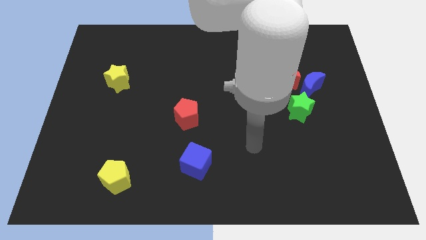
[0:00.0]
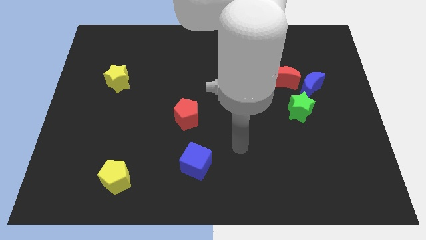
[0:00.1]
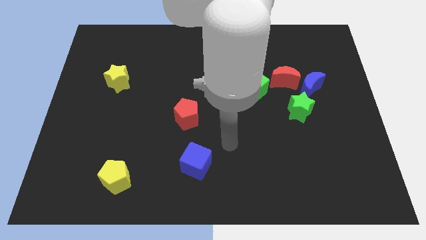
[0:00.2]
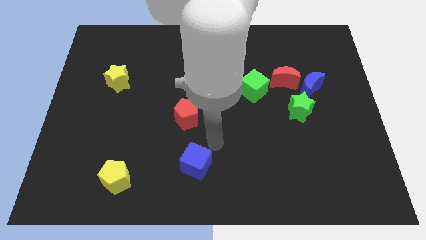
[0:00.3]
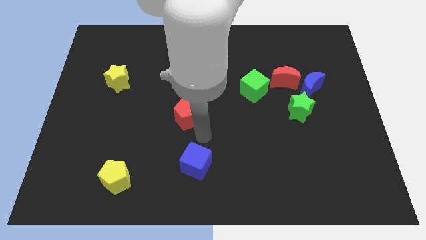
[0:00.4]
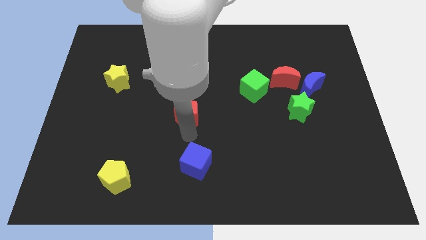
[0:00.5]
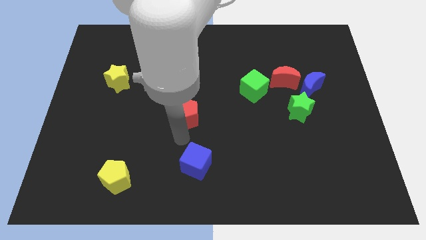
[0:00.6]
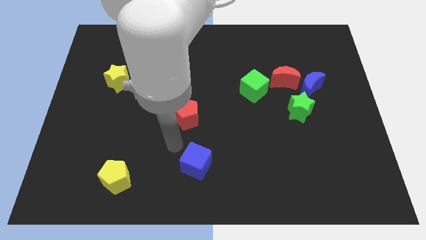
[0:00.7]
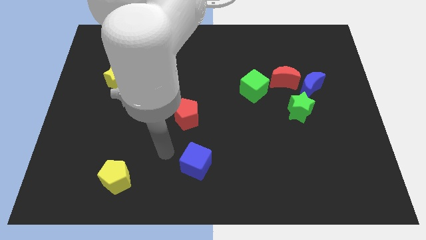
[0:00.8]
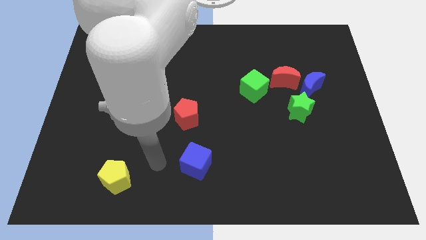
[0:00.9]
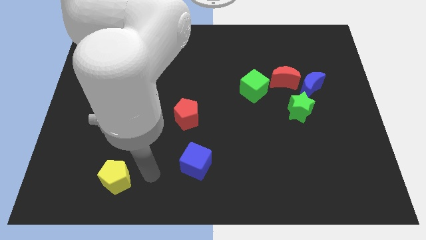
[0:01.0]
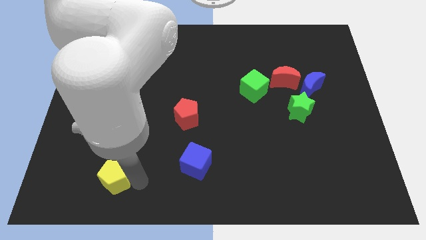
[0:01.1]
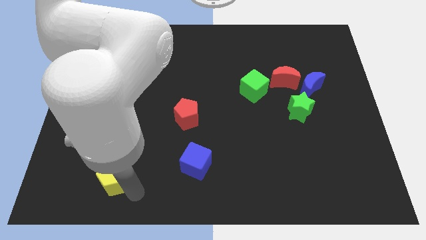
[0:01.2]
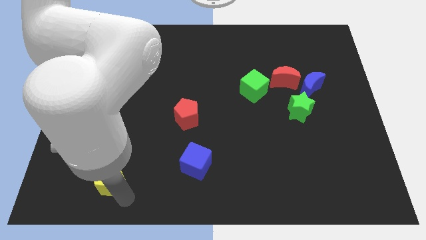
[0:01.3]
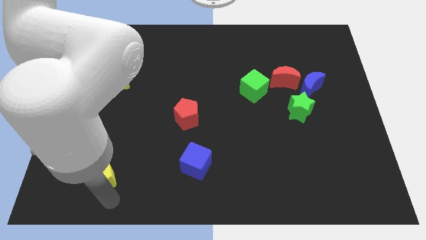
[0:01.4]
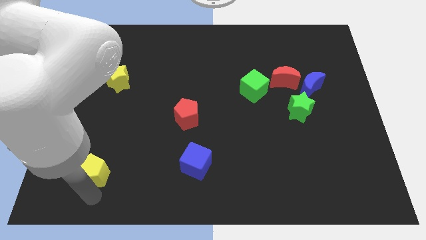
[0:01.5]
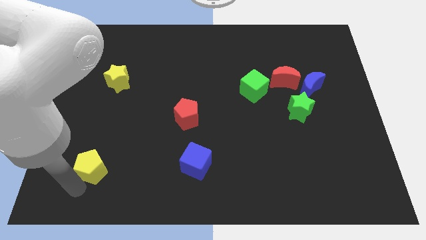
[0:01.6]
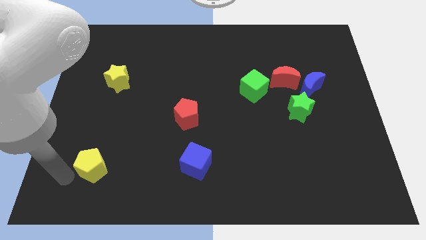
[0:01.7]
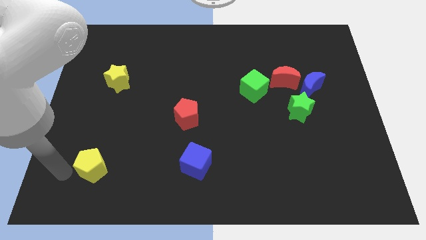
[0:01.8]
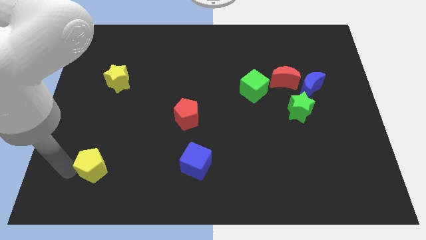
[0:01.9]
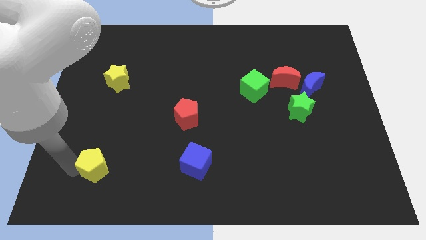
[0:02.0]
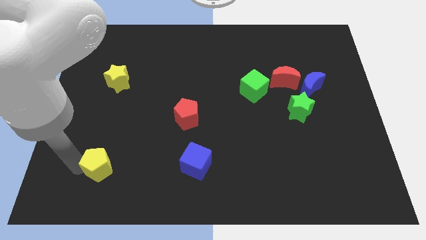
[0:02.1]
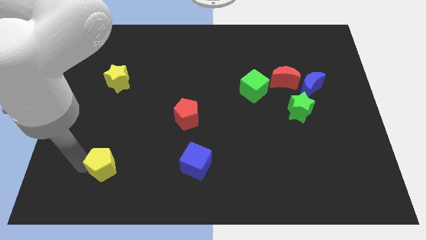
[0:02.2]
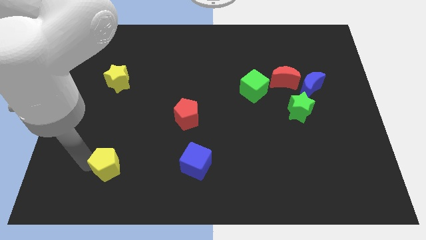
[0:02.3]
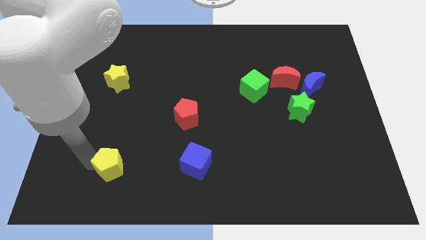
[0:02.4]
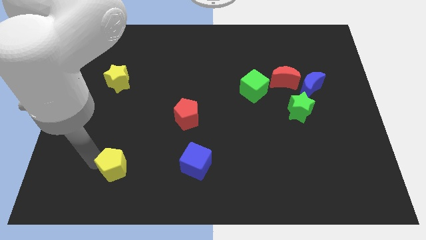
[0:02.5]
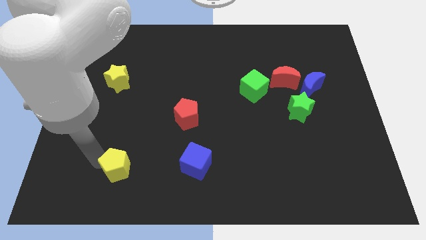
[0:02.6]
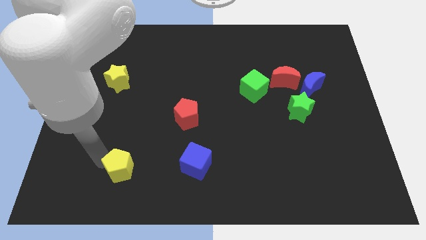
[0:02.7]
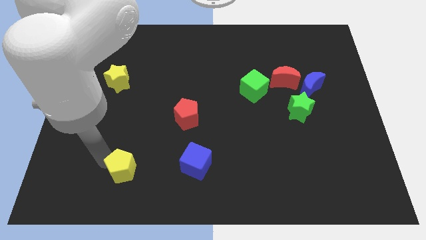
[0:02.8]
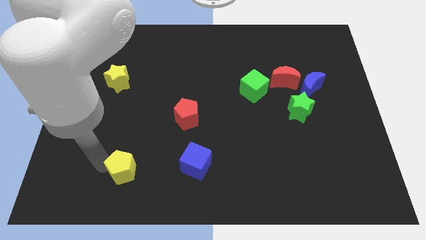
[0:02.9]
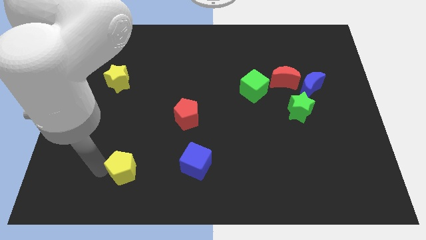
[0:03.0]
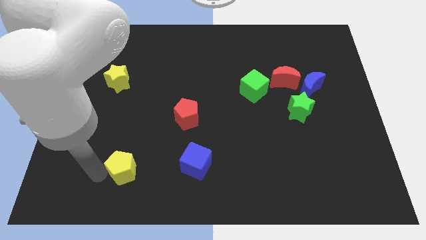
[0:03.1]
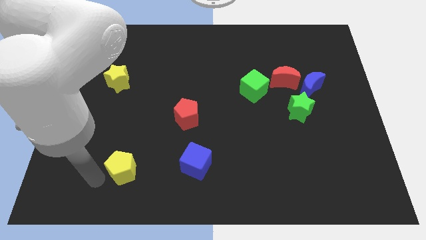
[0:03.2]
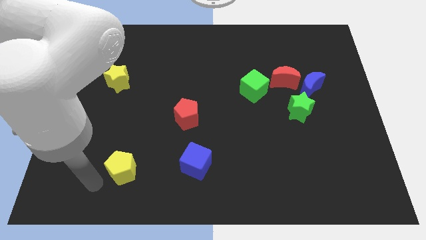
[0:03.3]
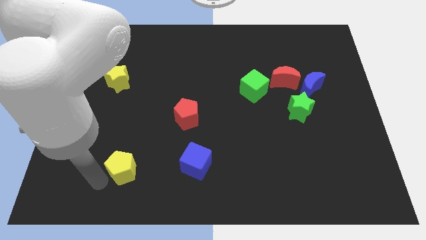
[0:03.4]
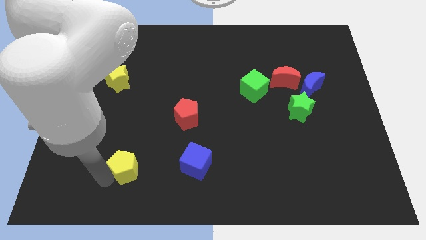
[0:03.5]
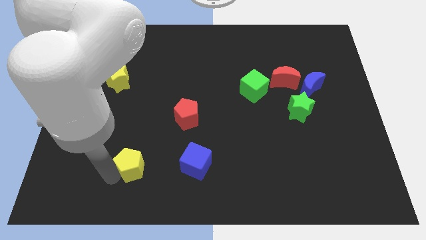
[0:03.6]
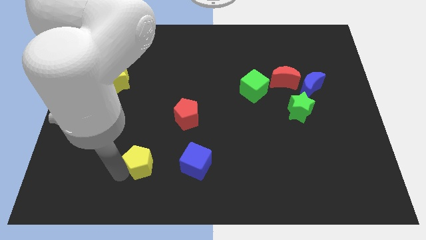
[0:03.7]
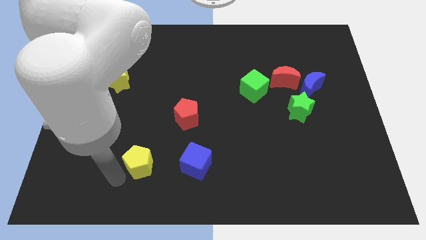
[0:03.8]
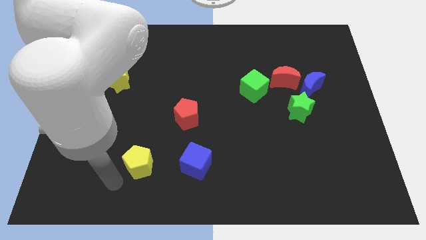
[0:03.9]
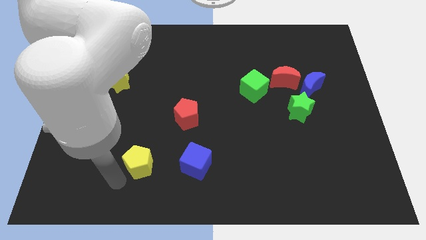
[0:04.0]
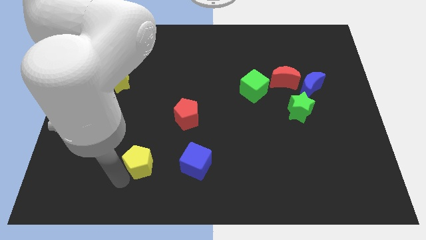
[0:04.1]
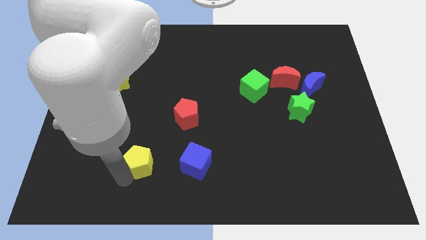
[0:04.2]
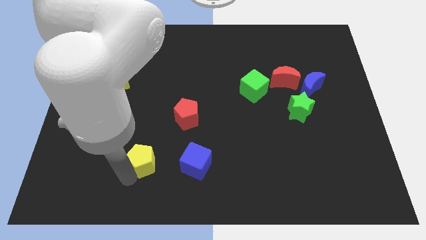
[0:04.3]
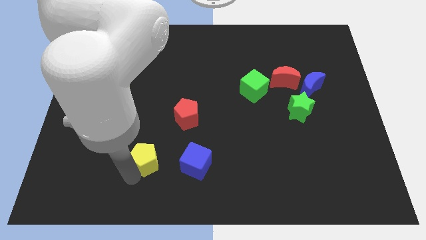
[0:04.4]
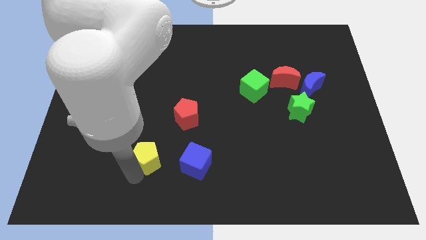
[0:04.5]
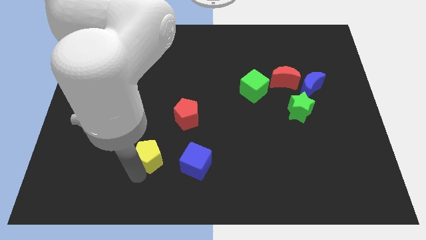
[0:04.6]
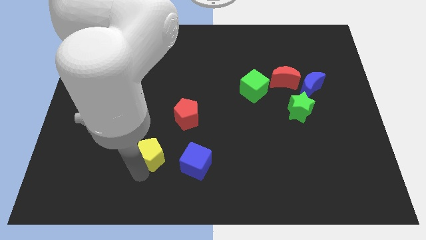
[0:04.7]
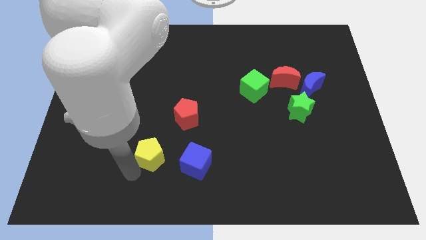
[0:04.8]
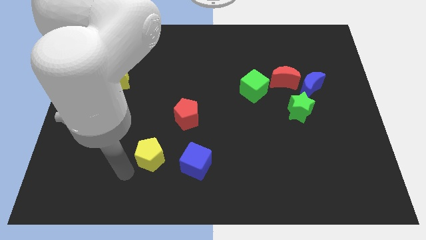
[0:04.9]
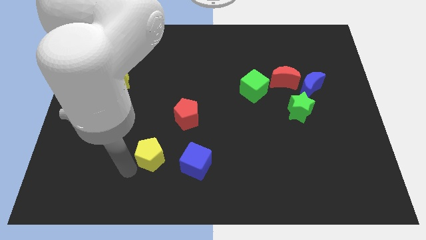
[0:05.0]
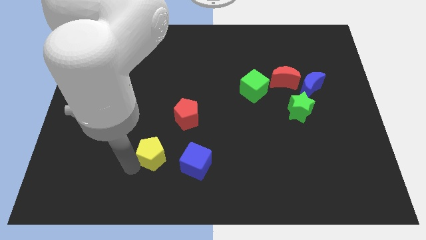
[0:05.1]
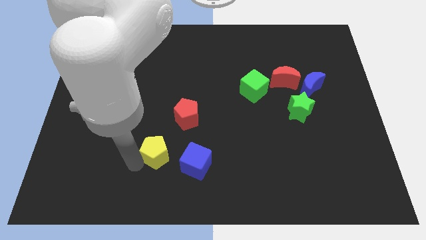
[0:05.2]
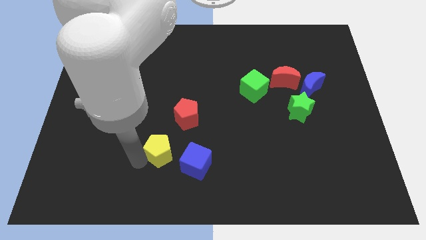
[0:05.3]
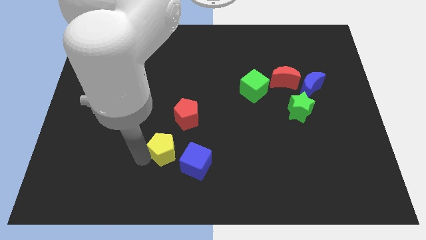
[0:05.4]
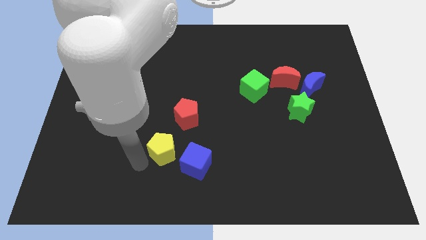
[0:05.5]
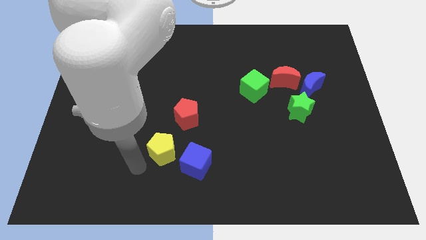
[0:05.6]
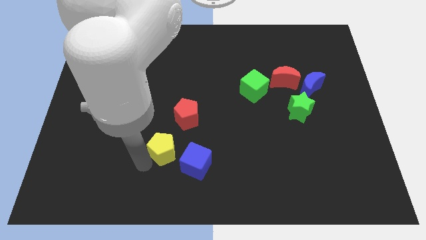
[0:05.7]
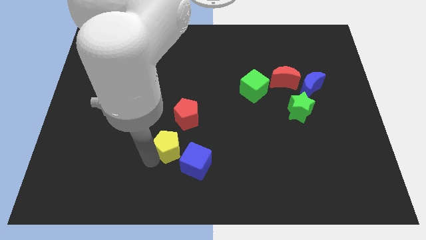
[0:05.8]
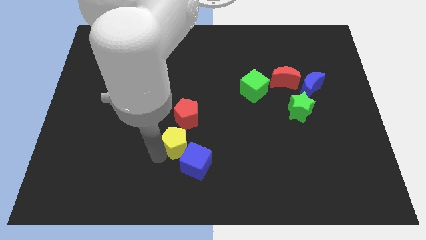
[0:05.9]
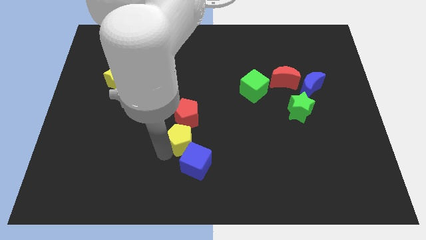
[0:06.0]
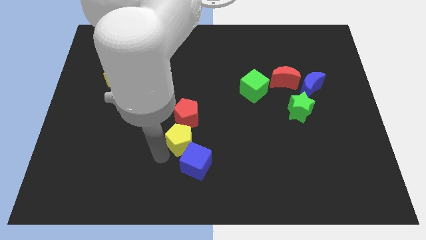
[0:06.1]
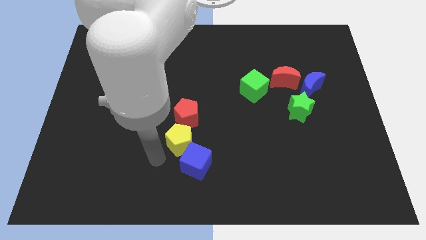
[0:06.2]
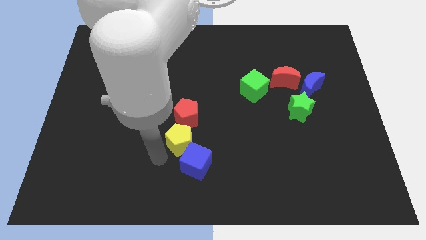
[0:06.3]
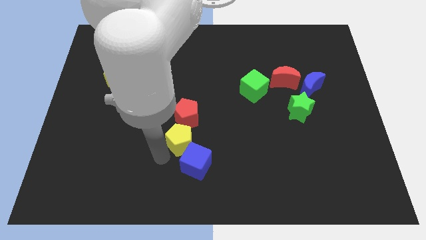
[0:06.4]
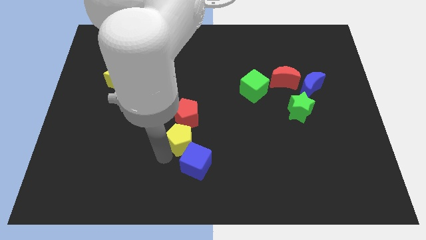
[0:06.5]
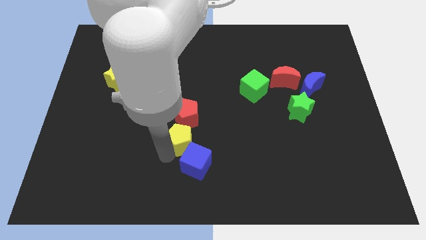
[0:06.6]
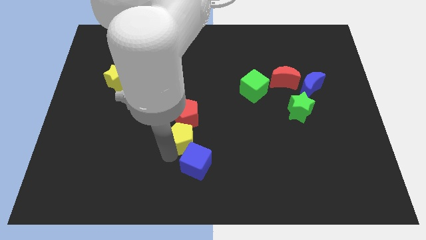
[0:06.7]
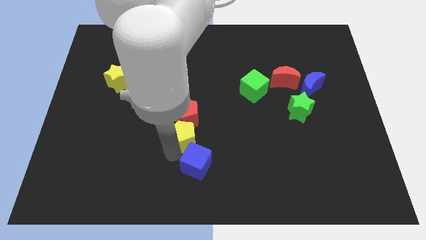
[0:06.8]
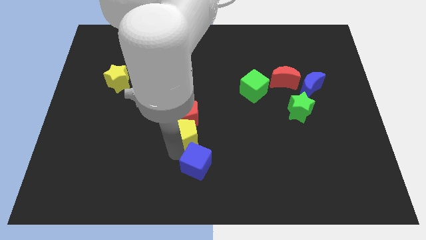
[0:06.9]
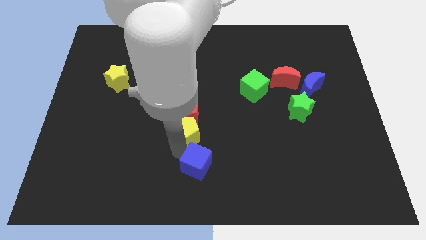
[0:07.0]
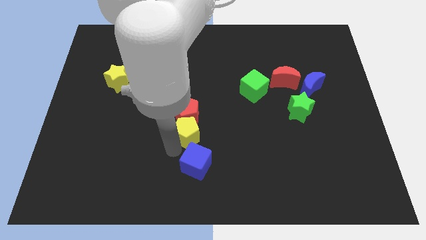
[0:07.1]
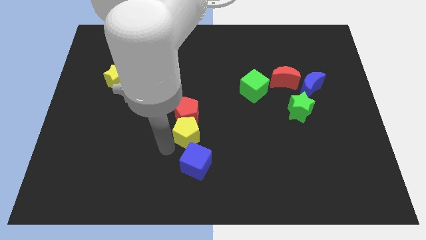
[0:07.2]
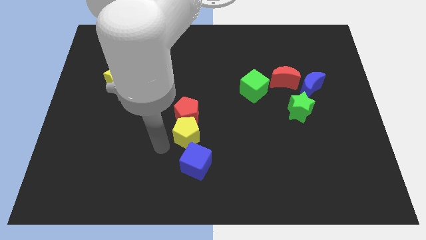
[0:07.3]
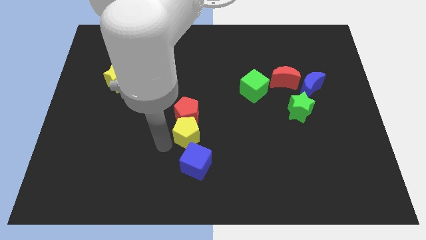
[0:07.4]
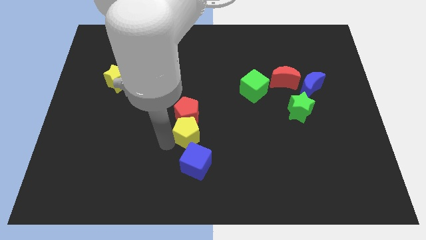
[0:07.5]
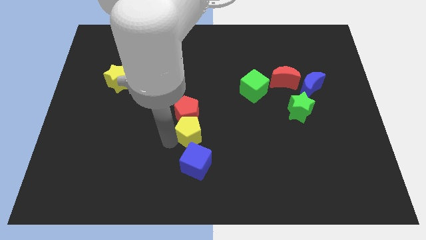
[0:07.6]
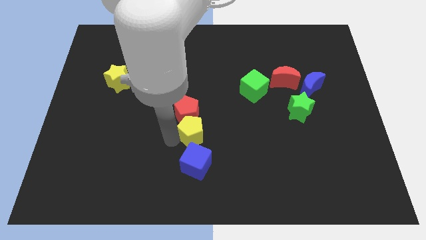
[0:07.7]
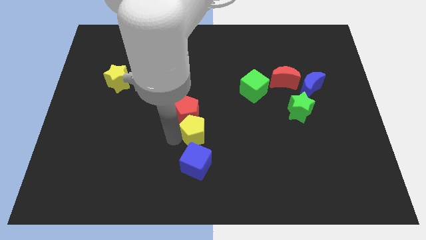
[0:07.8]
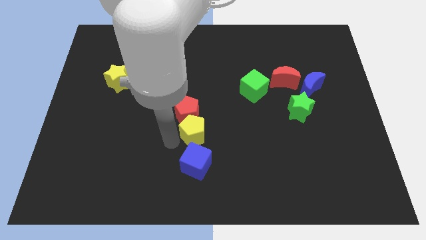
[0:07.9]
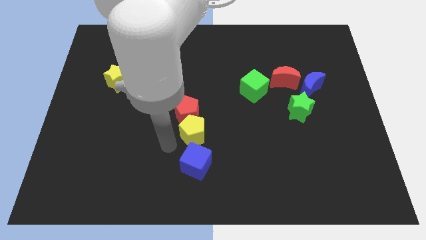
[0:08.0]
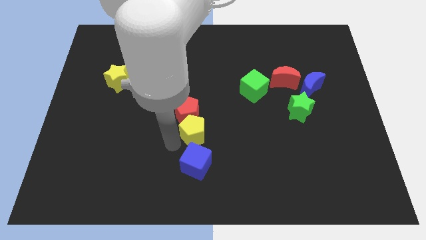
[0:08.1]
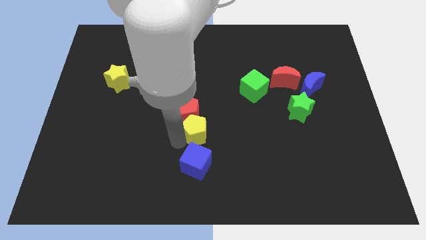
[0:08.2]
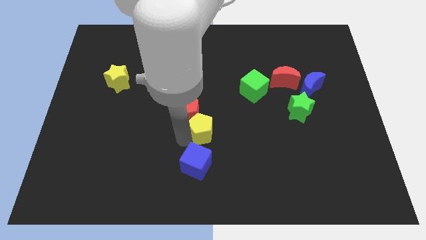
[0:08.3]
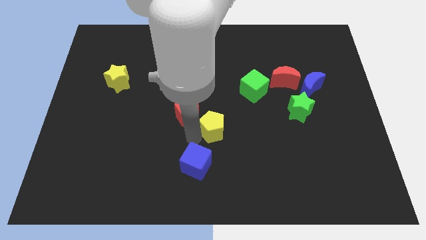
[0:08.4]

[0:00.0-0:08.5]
move the yellow pentagon diagonally up and to the right
